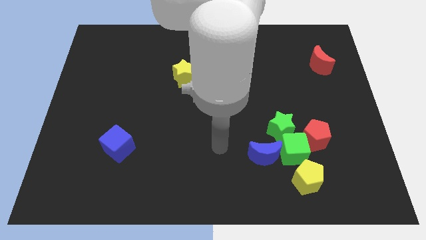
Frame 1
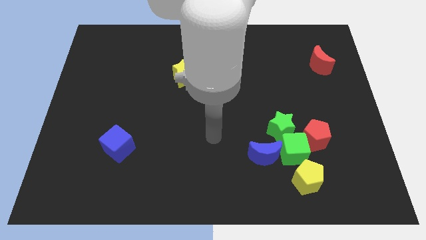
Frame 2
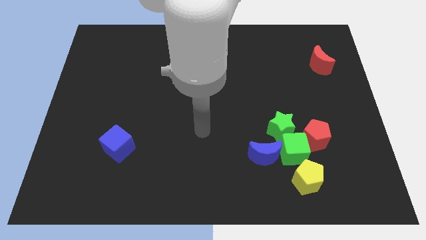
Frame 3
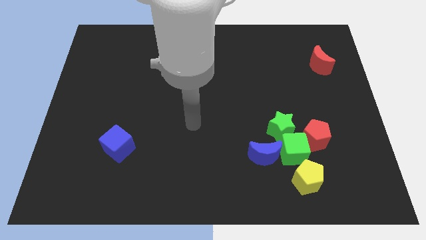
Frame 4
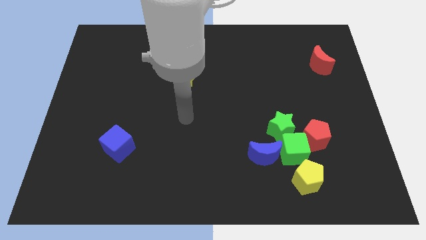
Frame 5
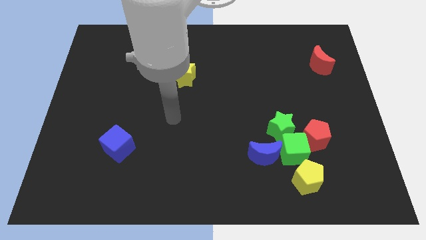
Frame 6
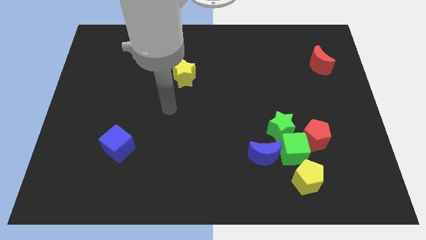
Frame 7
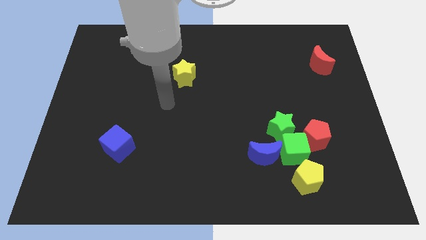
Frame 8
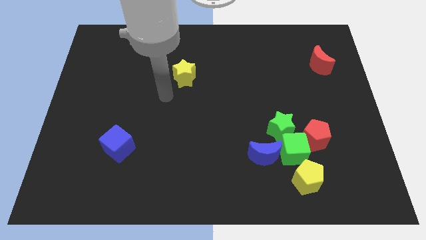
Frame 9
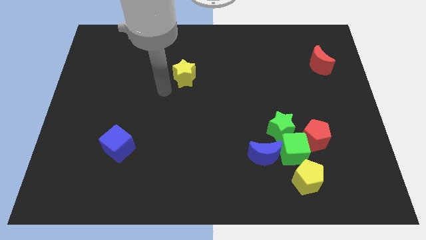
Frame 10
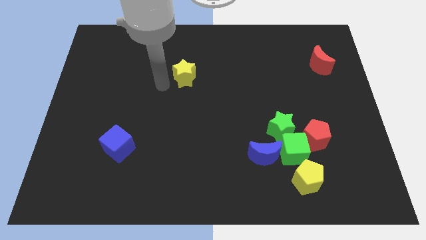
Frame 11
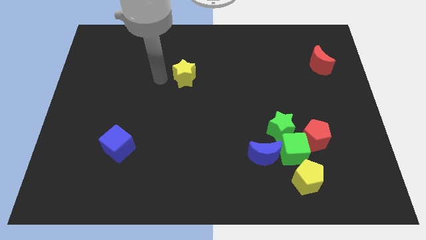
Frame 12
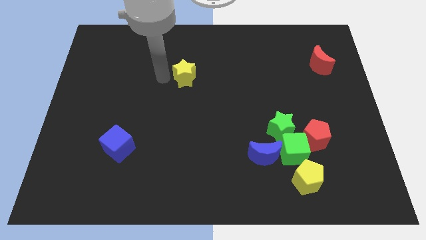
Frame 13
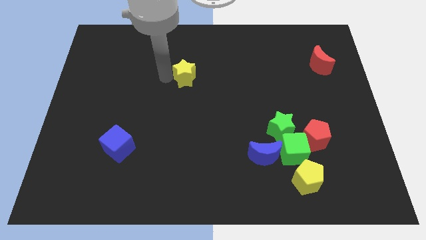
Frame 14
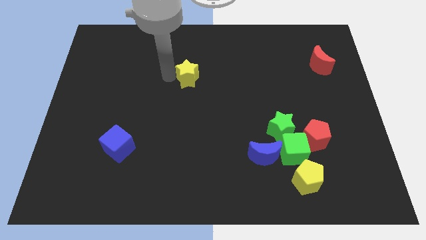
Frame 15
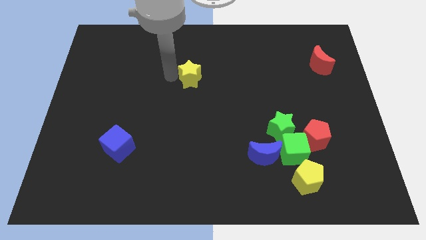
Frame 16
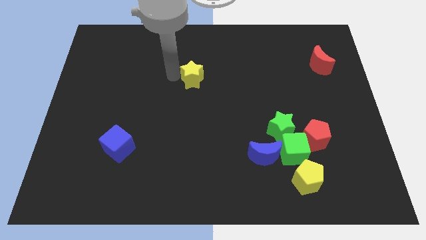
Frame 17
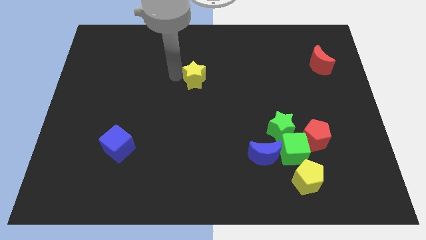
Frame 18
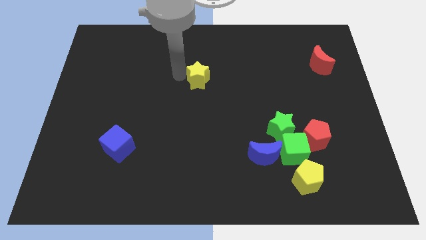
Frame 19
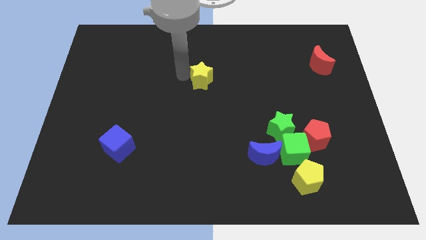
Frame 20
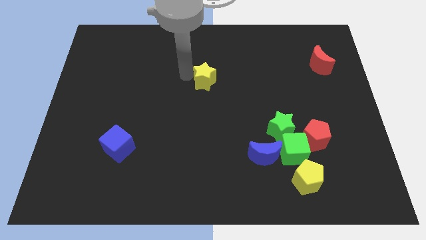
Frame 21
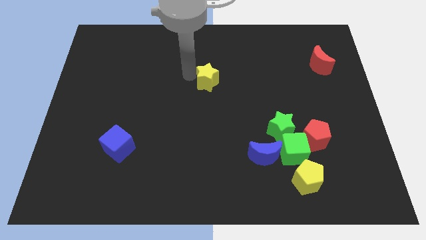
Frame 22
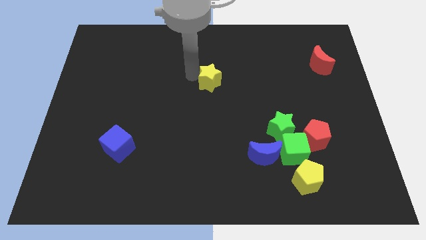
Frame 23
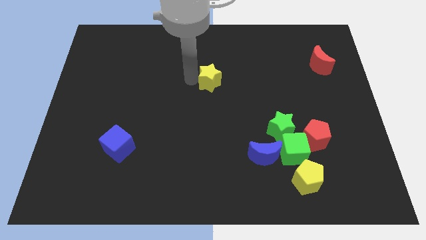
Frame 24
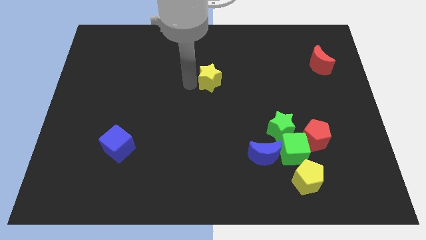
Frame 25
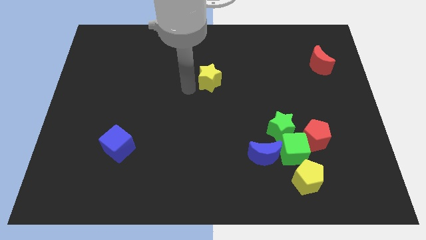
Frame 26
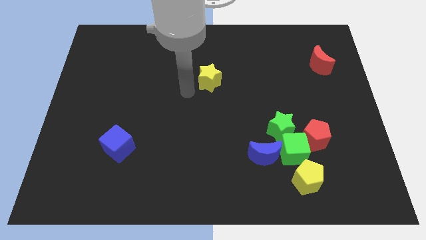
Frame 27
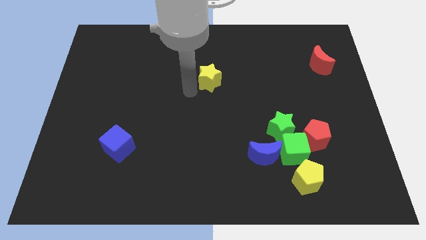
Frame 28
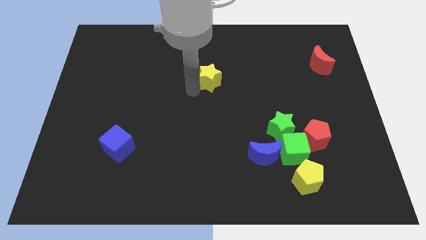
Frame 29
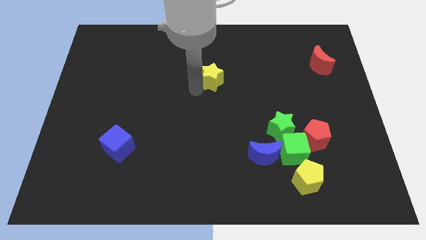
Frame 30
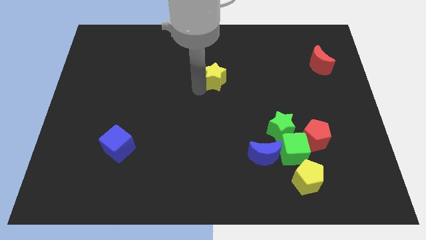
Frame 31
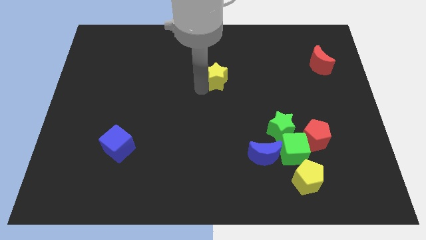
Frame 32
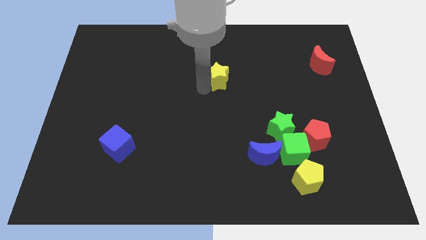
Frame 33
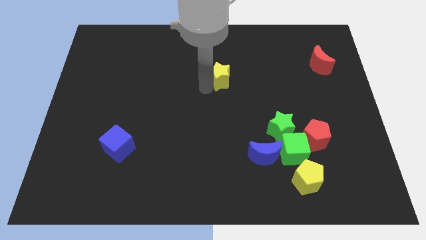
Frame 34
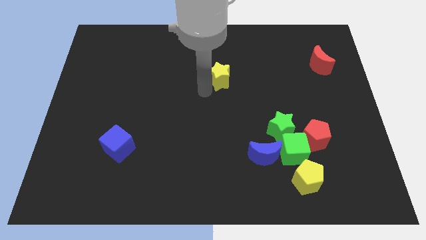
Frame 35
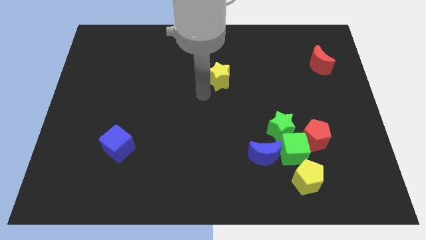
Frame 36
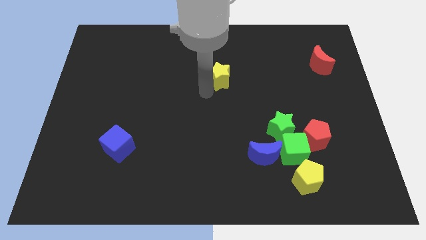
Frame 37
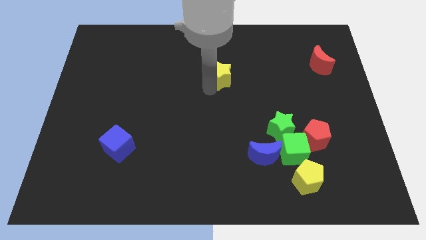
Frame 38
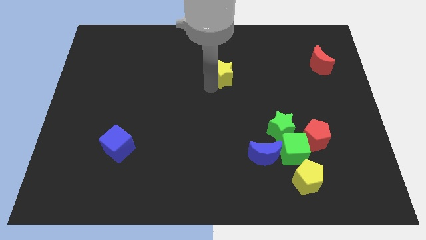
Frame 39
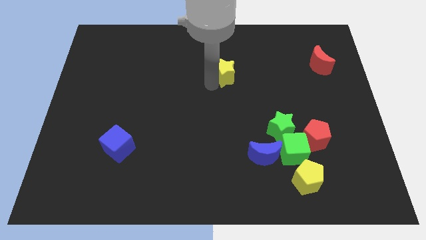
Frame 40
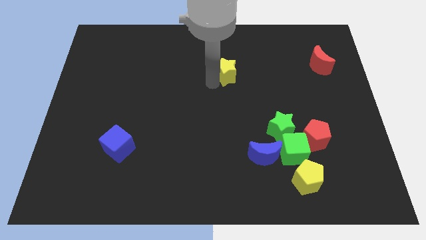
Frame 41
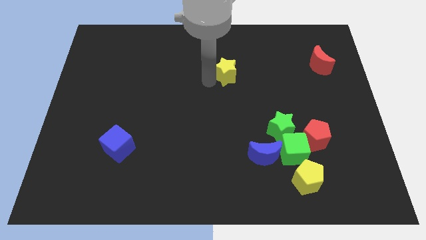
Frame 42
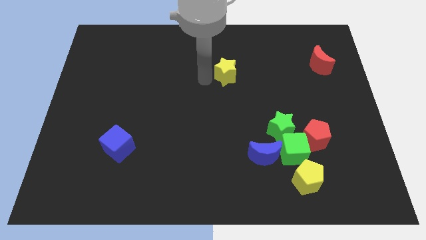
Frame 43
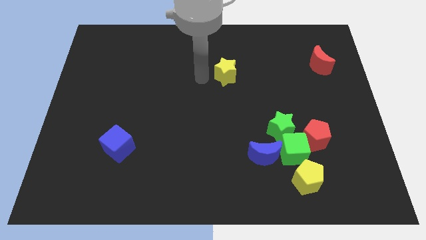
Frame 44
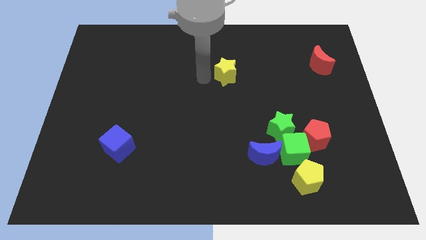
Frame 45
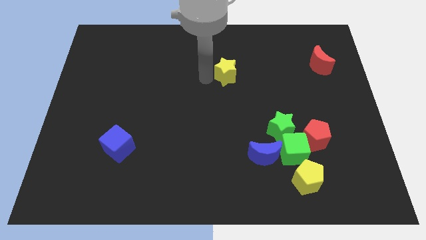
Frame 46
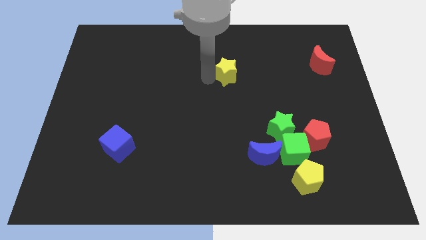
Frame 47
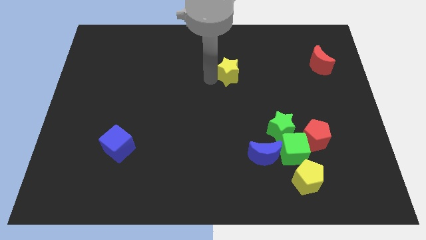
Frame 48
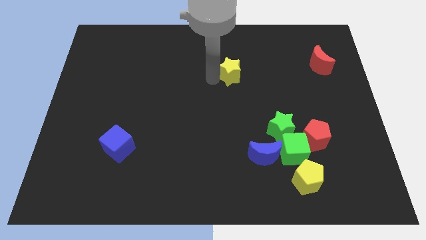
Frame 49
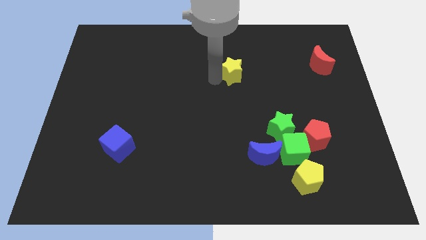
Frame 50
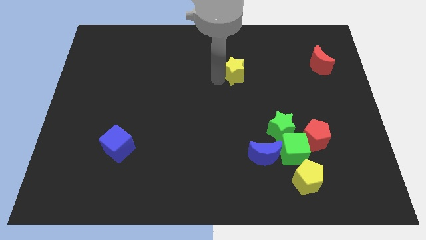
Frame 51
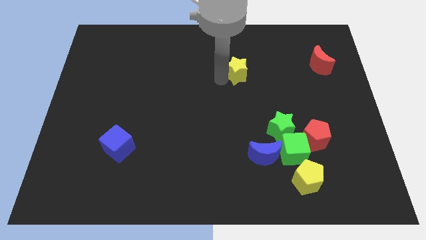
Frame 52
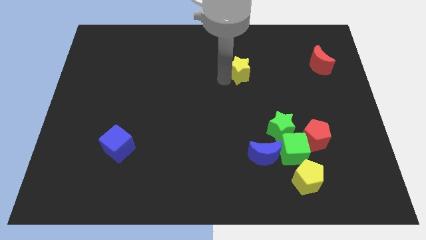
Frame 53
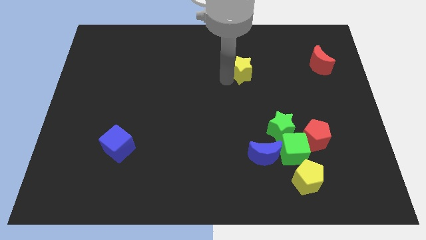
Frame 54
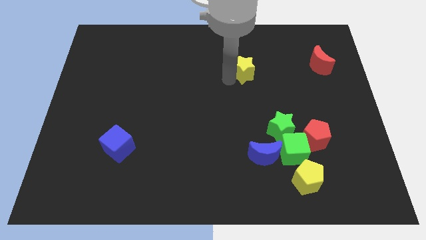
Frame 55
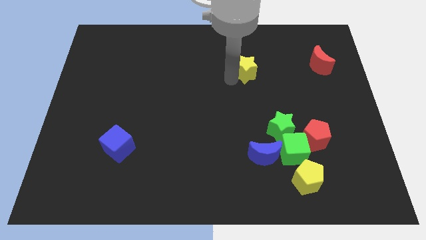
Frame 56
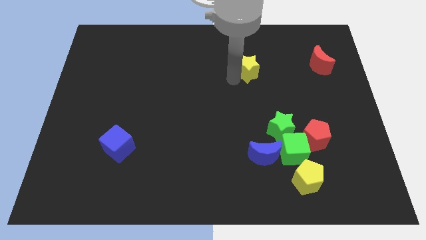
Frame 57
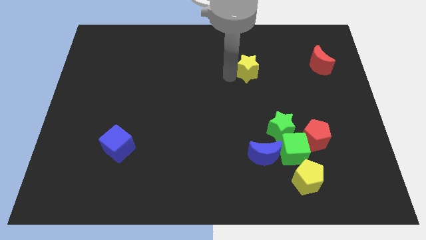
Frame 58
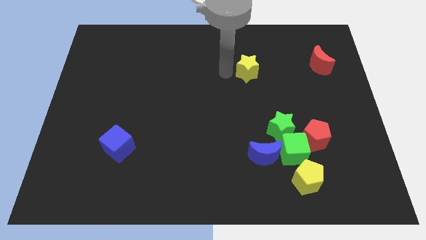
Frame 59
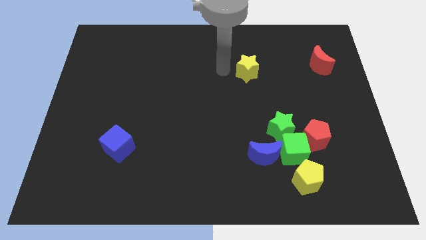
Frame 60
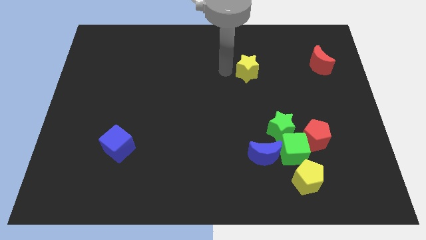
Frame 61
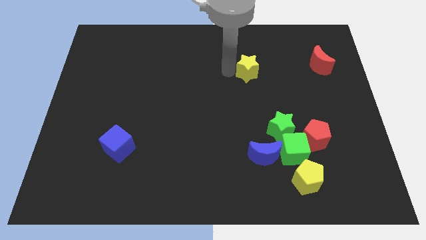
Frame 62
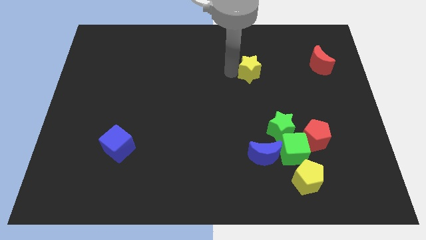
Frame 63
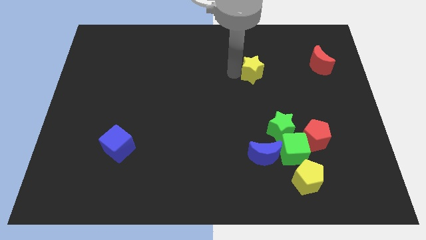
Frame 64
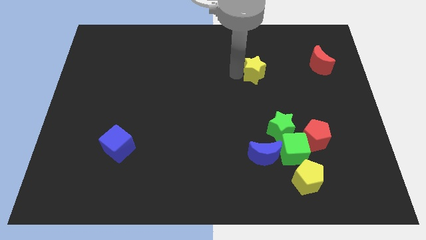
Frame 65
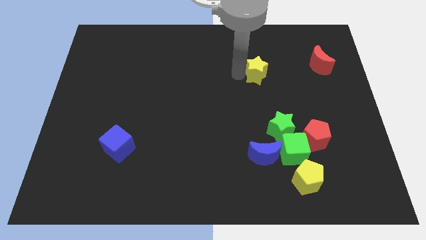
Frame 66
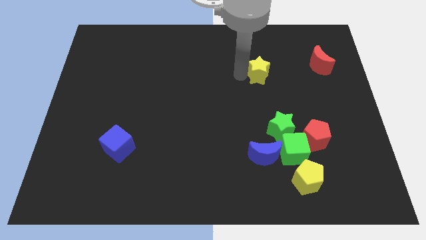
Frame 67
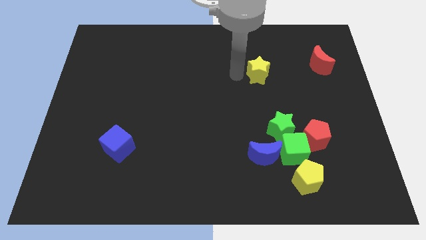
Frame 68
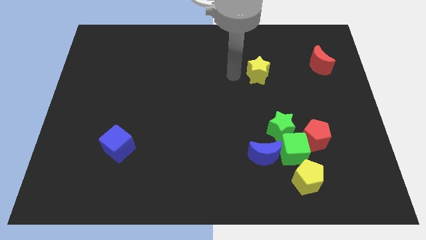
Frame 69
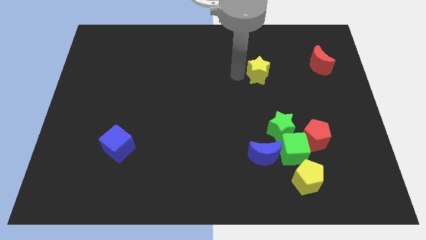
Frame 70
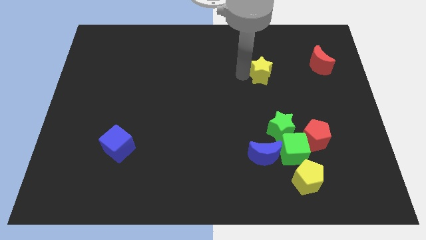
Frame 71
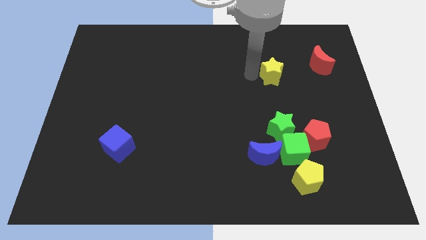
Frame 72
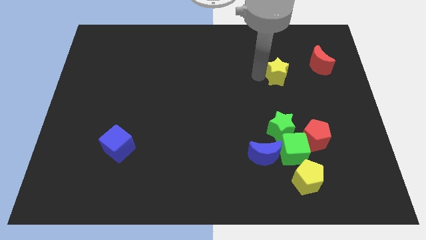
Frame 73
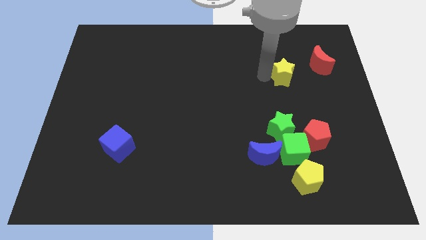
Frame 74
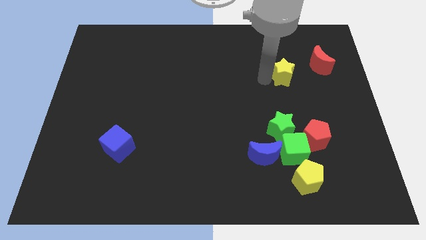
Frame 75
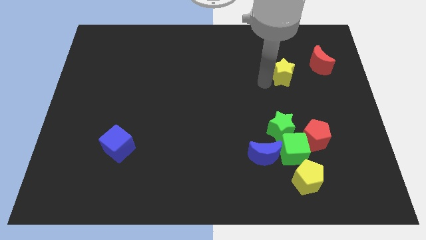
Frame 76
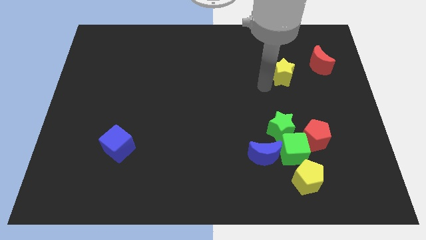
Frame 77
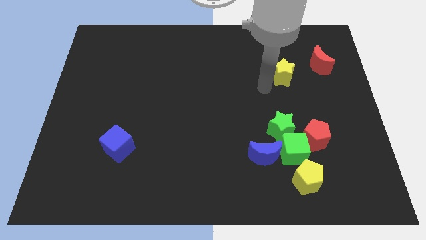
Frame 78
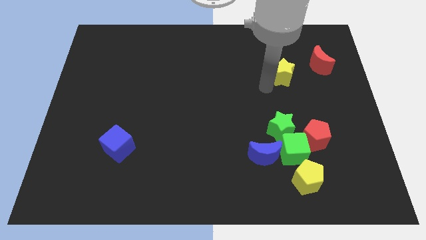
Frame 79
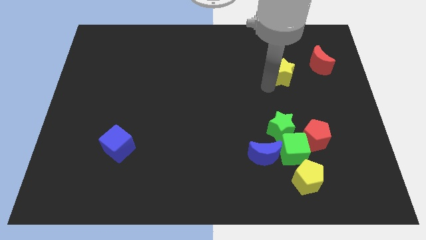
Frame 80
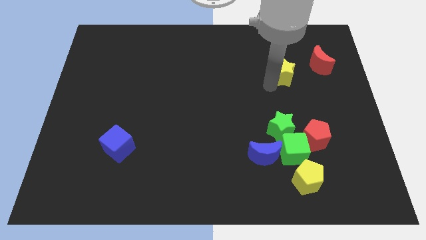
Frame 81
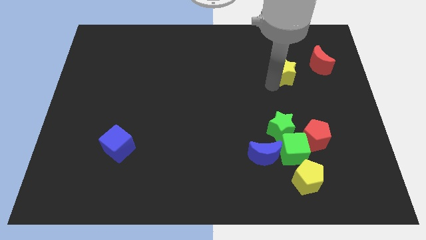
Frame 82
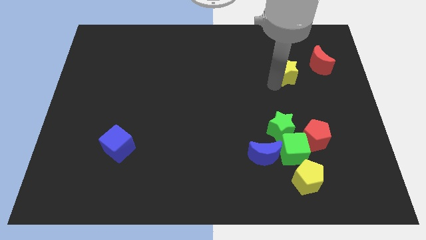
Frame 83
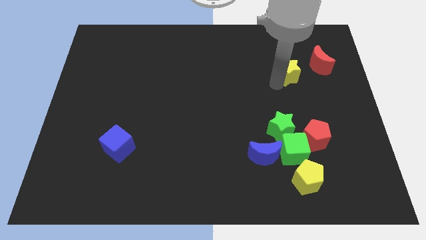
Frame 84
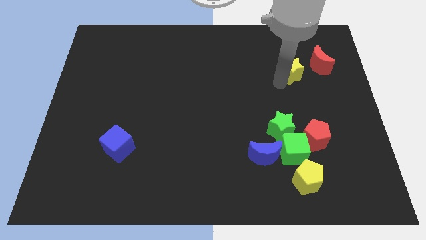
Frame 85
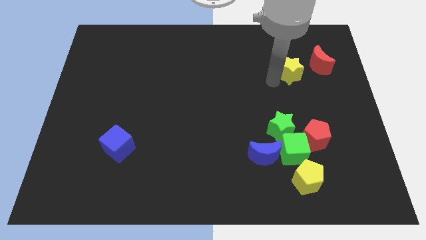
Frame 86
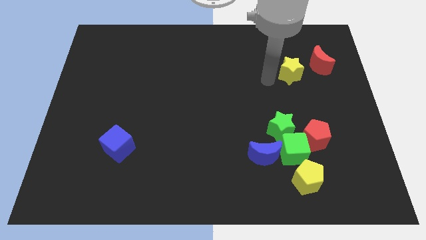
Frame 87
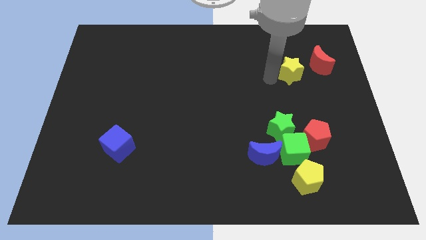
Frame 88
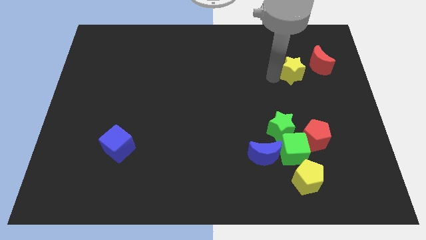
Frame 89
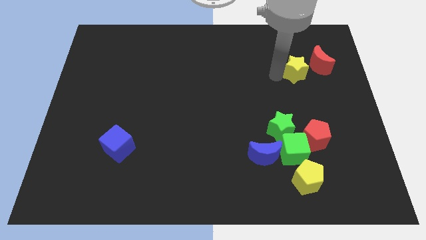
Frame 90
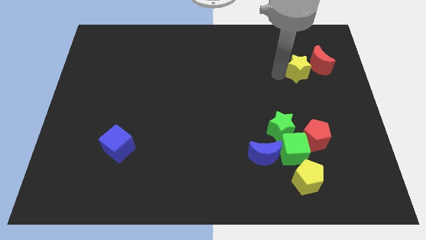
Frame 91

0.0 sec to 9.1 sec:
put the yellow star to the red moon
